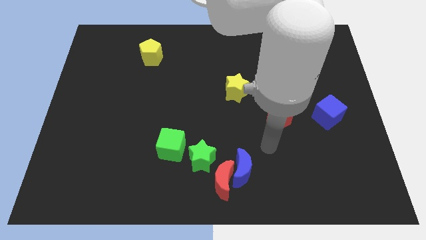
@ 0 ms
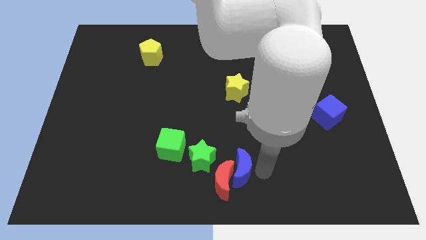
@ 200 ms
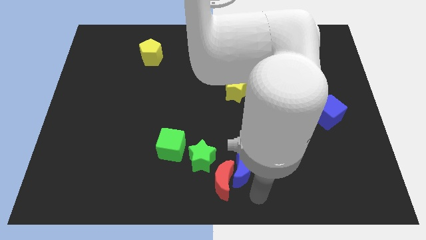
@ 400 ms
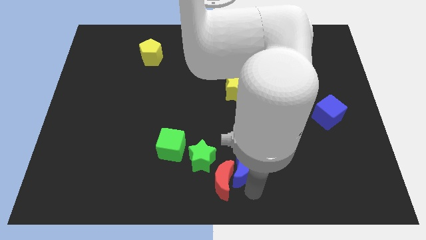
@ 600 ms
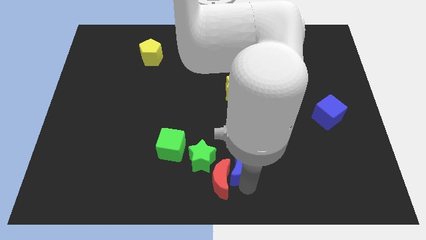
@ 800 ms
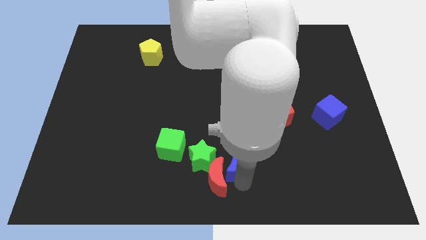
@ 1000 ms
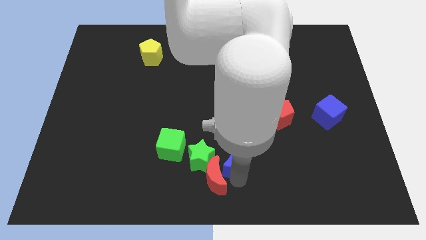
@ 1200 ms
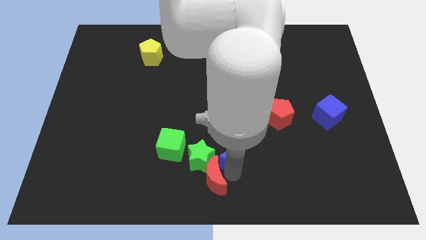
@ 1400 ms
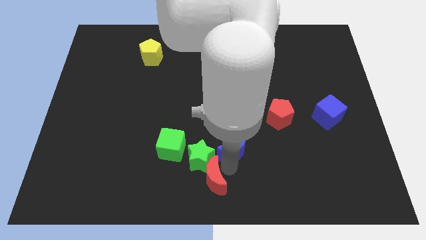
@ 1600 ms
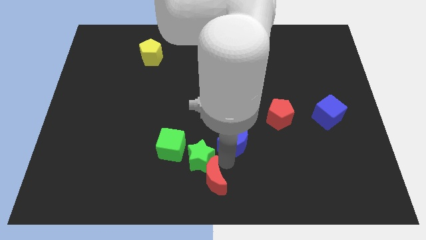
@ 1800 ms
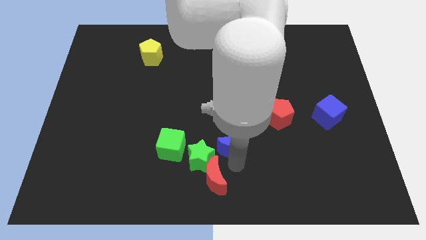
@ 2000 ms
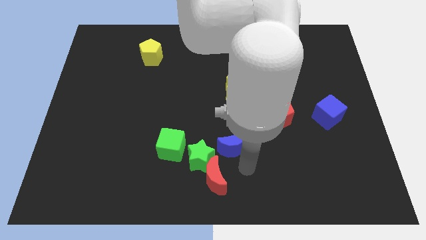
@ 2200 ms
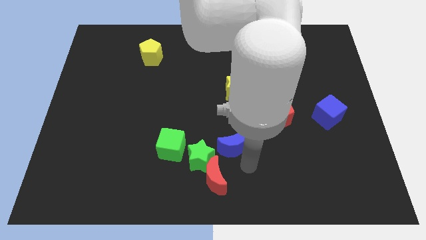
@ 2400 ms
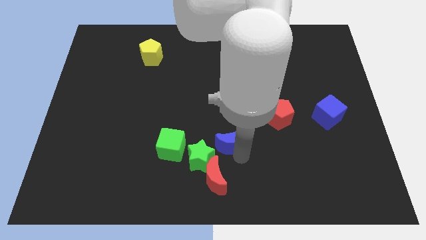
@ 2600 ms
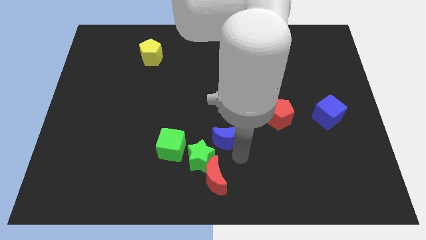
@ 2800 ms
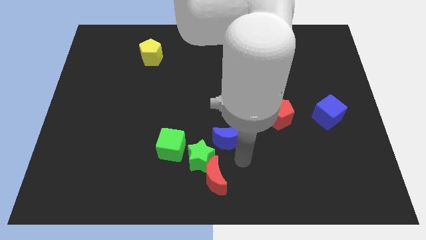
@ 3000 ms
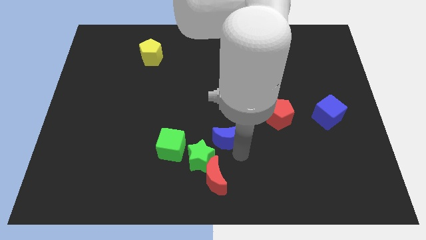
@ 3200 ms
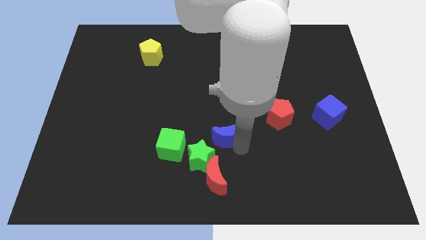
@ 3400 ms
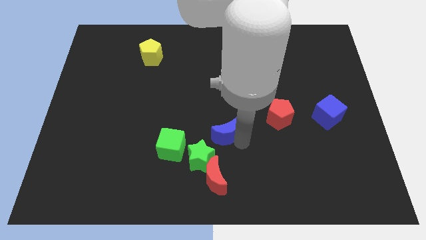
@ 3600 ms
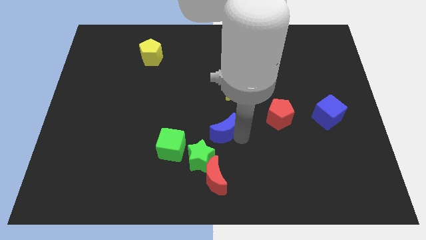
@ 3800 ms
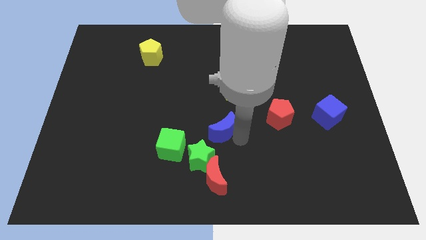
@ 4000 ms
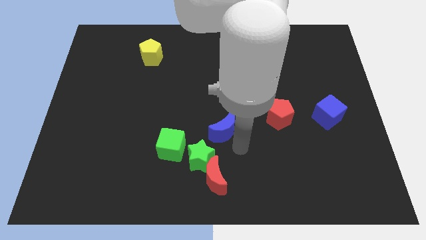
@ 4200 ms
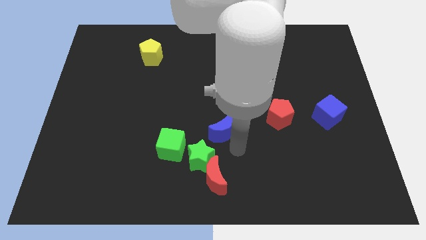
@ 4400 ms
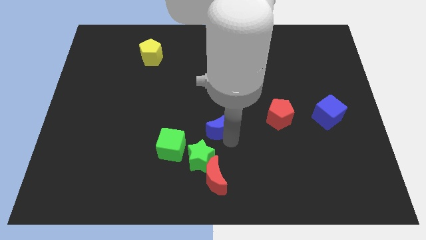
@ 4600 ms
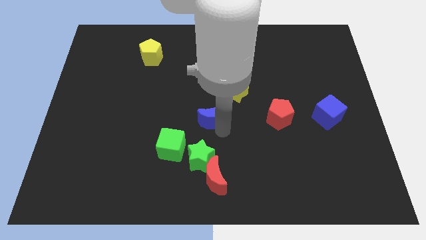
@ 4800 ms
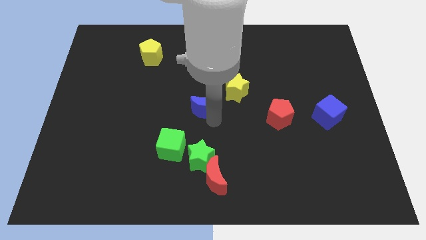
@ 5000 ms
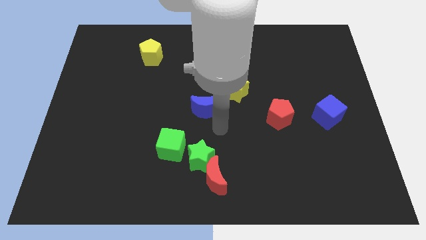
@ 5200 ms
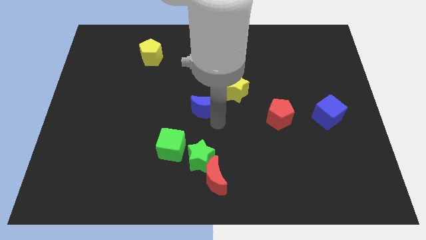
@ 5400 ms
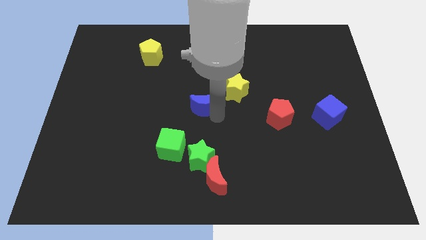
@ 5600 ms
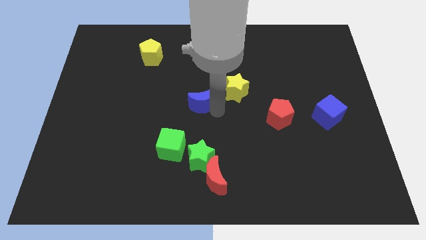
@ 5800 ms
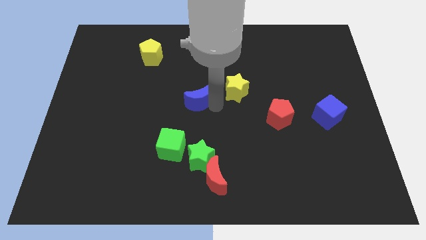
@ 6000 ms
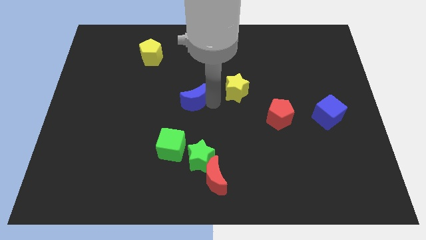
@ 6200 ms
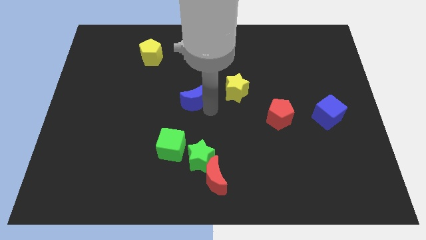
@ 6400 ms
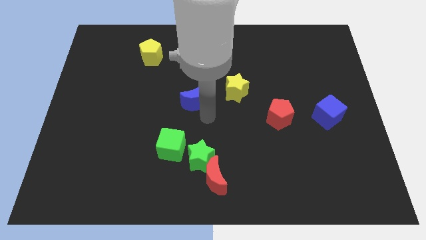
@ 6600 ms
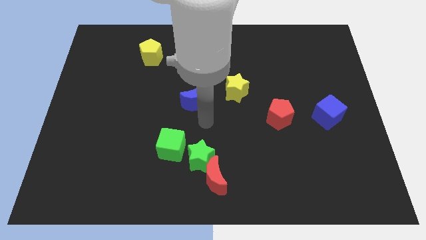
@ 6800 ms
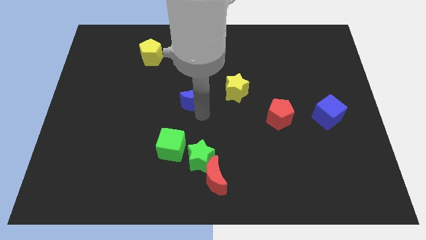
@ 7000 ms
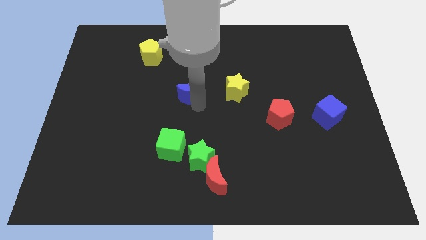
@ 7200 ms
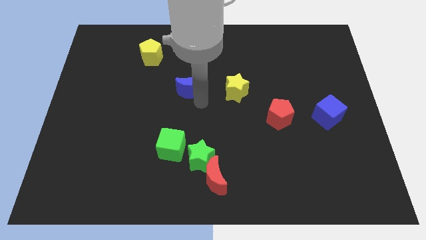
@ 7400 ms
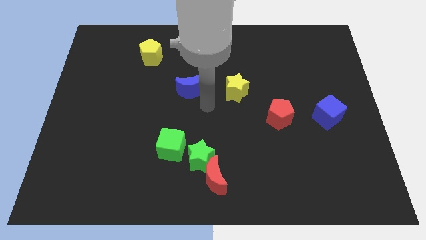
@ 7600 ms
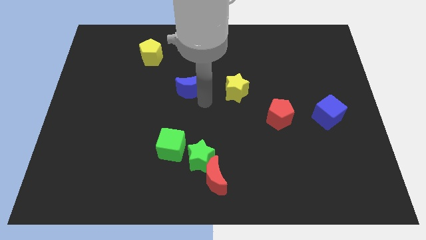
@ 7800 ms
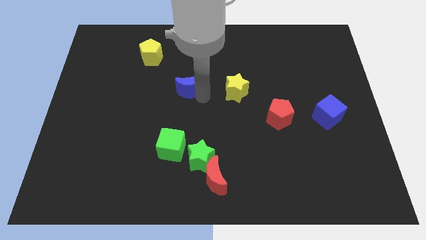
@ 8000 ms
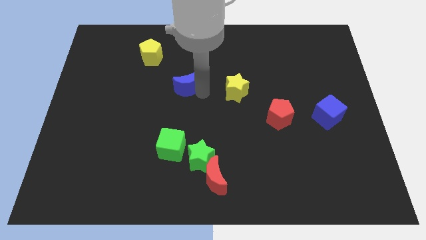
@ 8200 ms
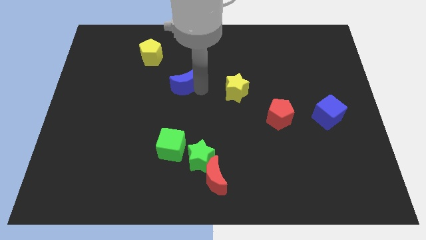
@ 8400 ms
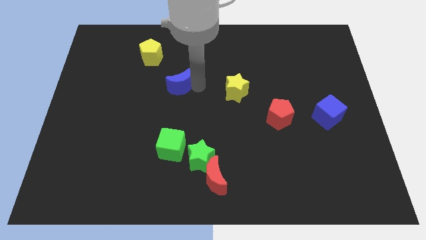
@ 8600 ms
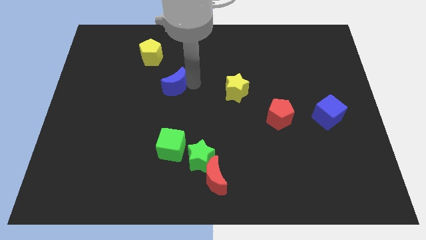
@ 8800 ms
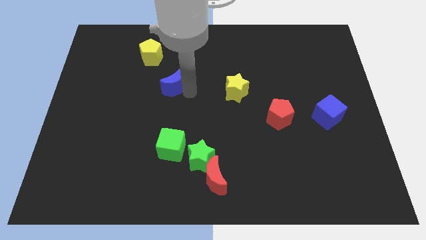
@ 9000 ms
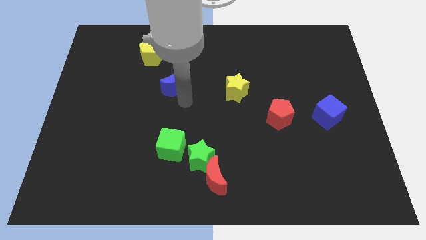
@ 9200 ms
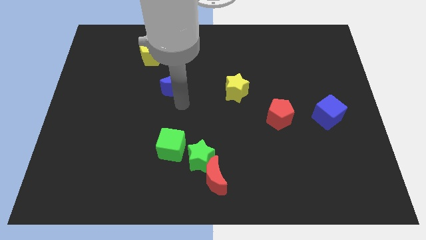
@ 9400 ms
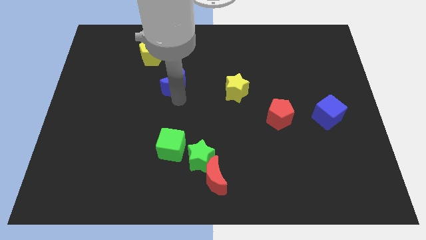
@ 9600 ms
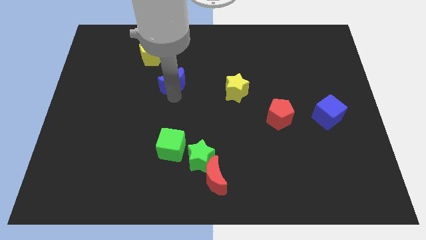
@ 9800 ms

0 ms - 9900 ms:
move the blue moon to the bottom right of the yellow pentagon

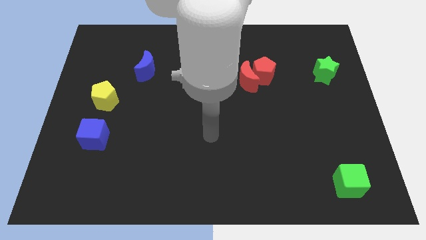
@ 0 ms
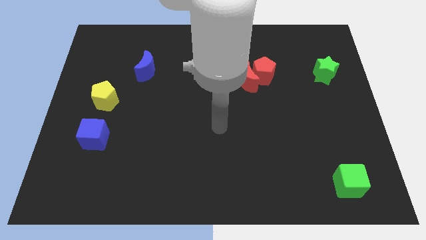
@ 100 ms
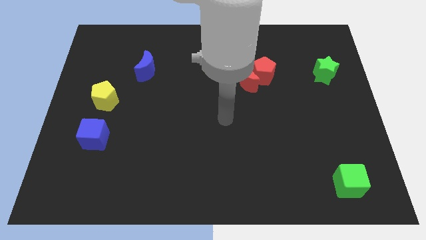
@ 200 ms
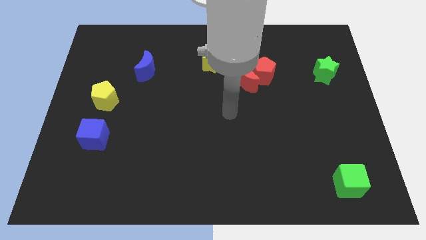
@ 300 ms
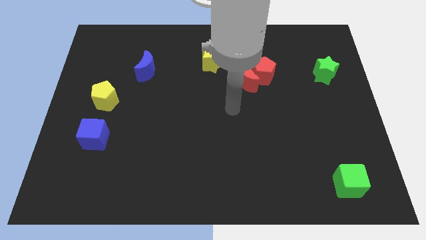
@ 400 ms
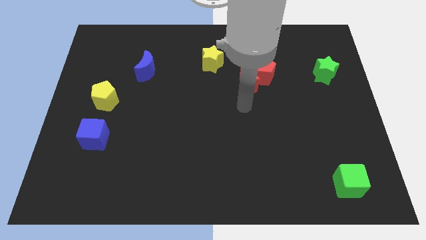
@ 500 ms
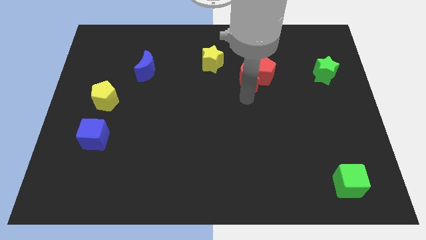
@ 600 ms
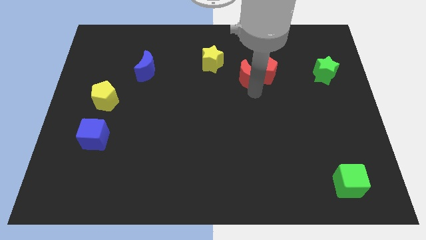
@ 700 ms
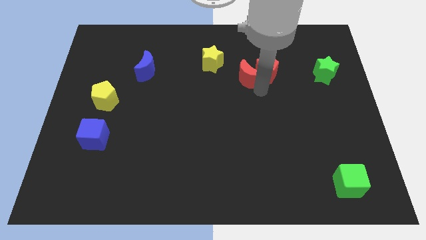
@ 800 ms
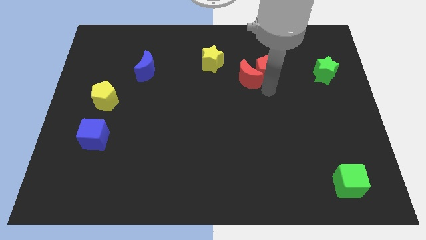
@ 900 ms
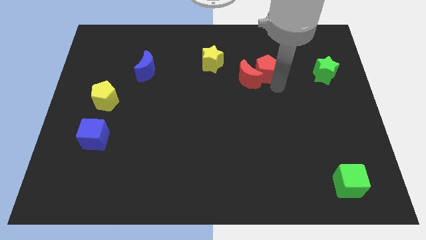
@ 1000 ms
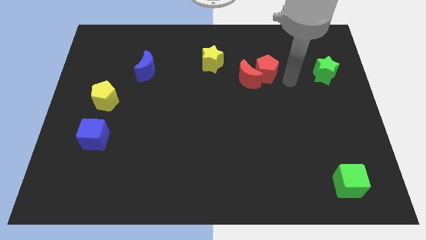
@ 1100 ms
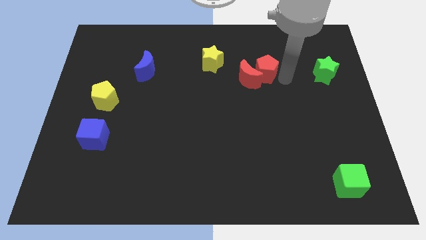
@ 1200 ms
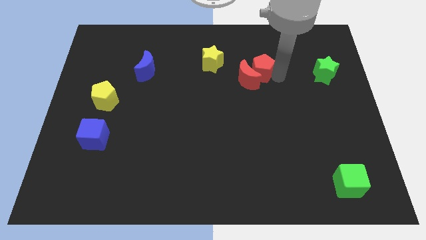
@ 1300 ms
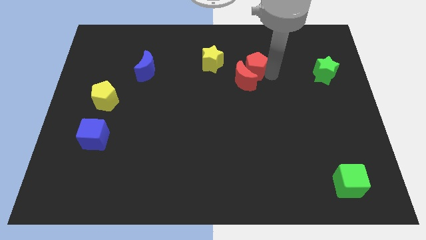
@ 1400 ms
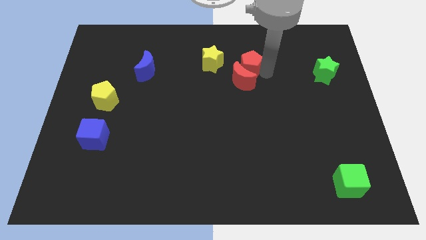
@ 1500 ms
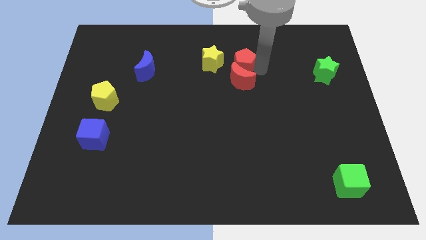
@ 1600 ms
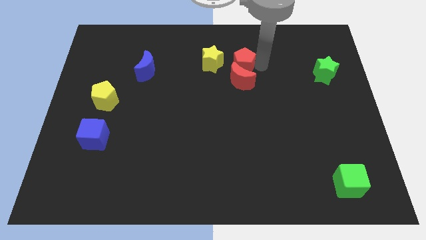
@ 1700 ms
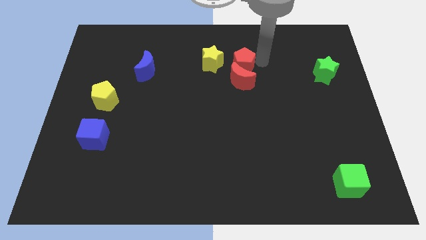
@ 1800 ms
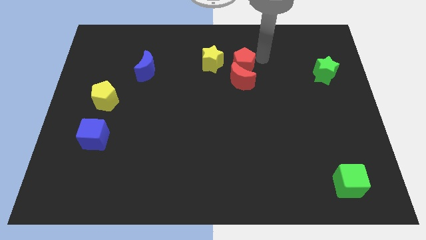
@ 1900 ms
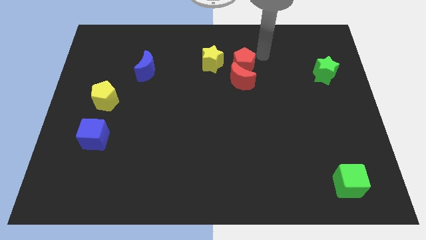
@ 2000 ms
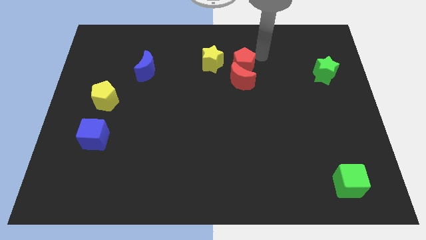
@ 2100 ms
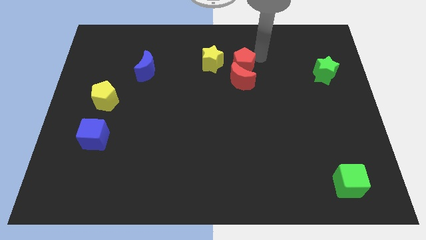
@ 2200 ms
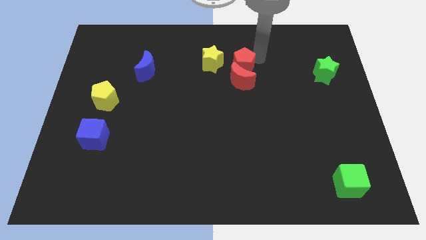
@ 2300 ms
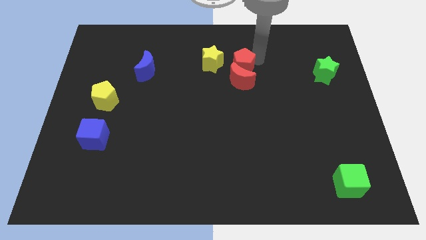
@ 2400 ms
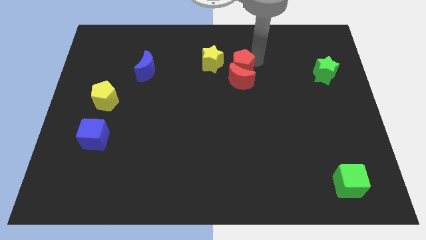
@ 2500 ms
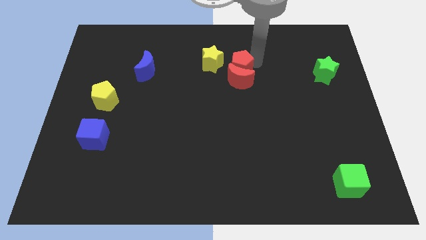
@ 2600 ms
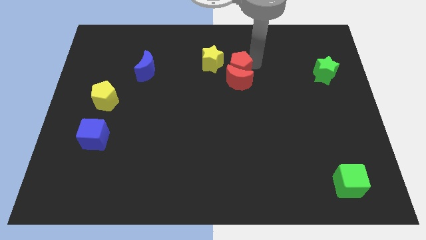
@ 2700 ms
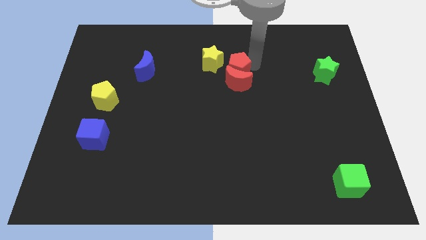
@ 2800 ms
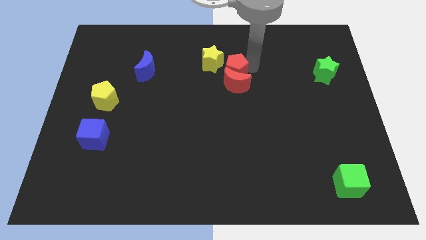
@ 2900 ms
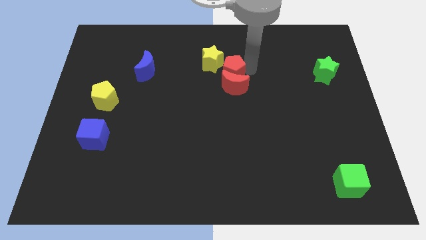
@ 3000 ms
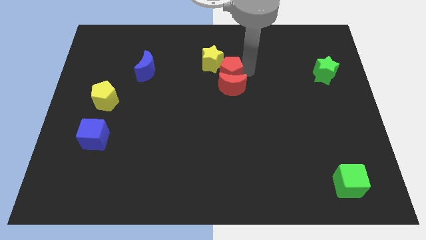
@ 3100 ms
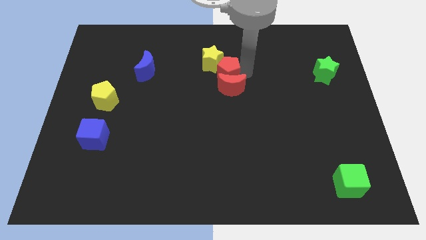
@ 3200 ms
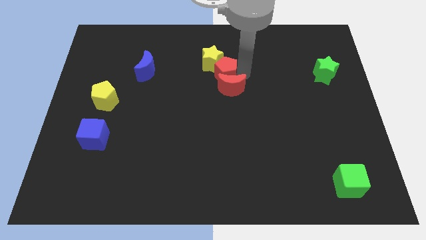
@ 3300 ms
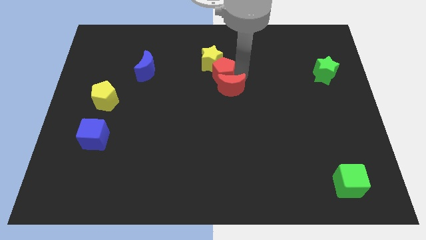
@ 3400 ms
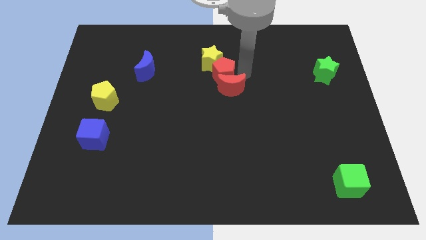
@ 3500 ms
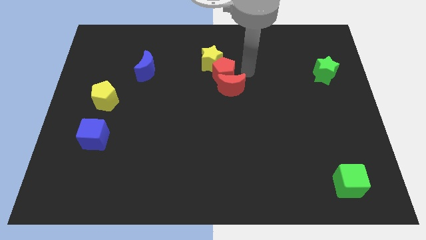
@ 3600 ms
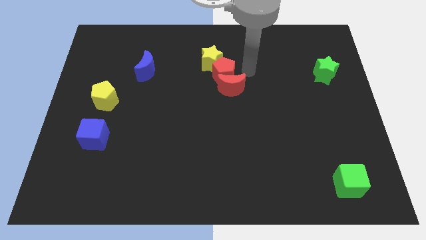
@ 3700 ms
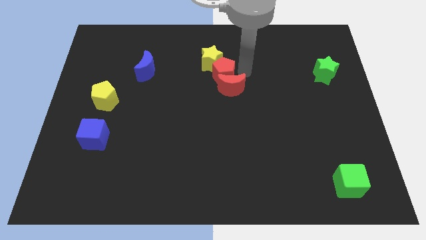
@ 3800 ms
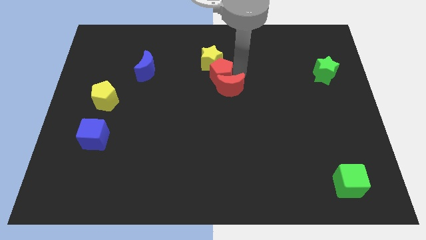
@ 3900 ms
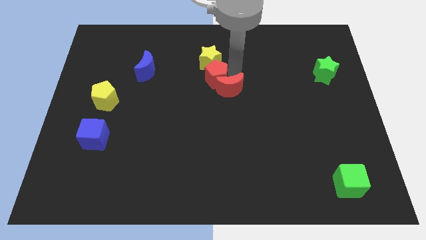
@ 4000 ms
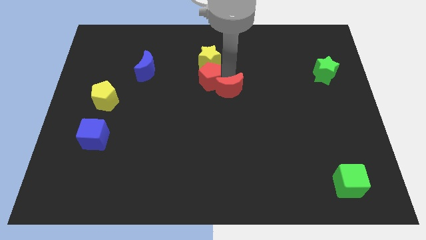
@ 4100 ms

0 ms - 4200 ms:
move the red pentagon to the bottom left of the yellow star
